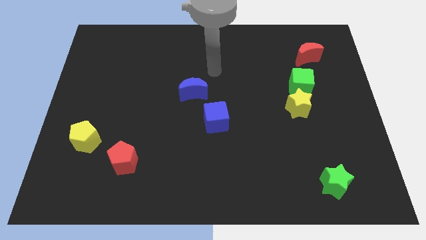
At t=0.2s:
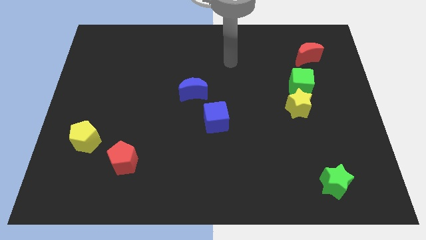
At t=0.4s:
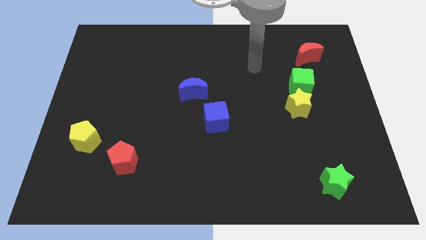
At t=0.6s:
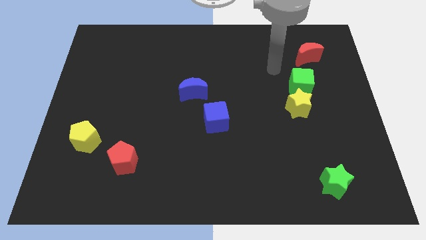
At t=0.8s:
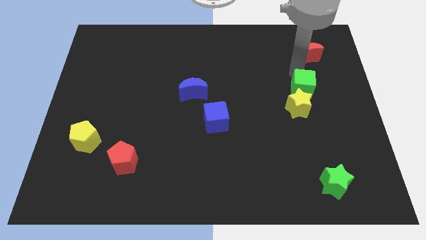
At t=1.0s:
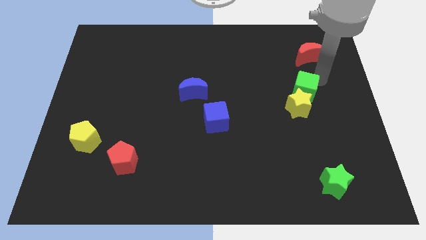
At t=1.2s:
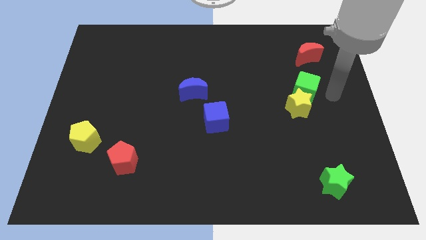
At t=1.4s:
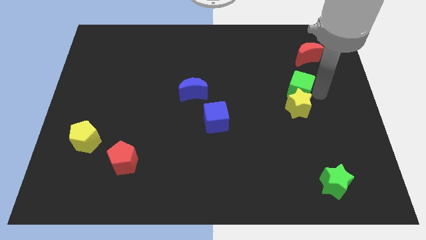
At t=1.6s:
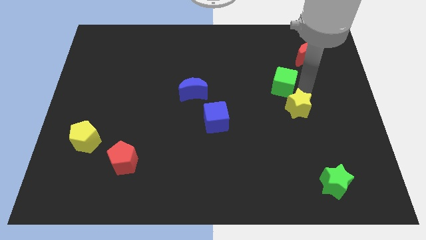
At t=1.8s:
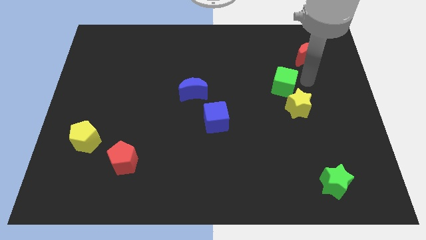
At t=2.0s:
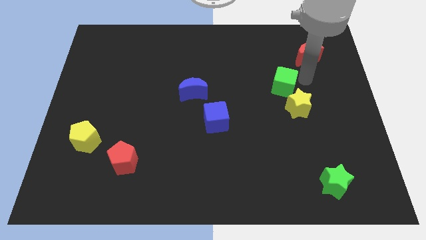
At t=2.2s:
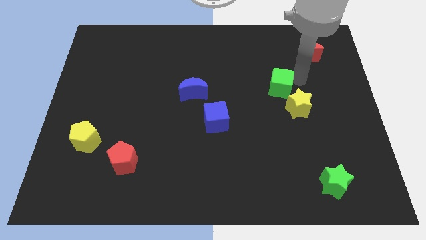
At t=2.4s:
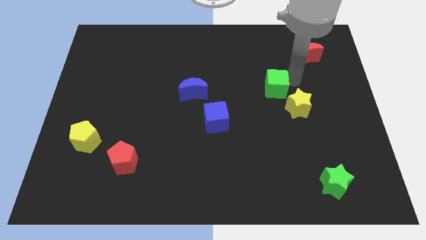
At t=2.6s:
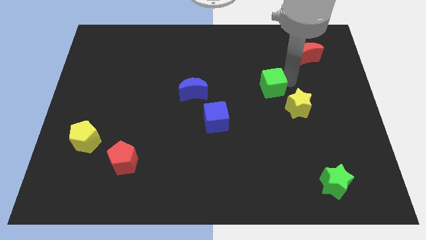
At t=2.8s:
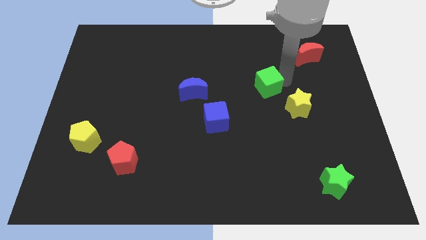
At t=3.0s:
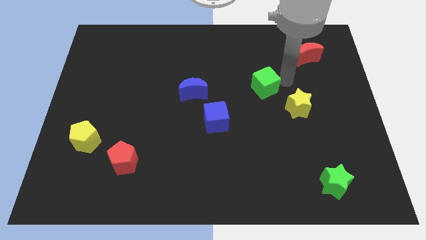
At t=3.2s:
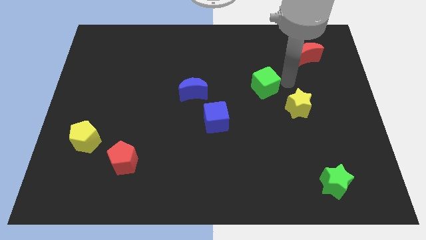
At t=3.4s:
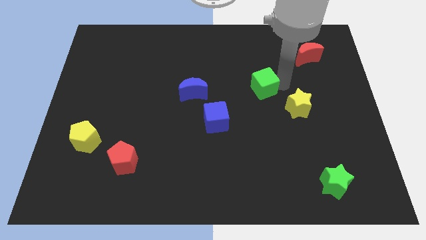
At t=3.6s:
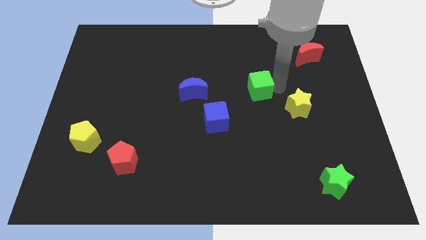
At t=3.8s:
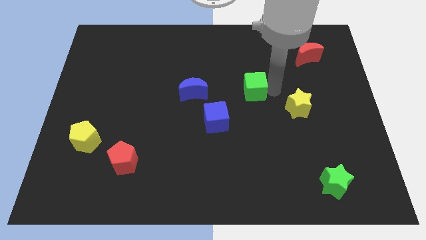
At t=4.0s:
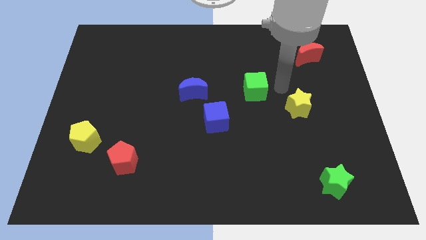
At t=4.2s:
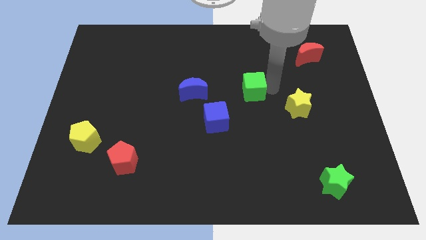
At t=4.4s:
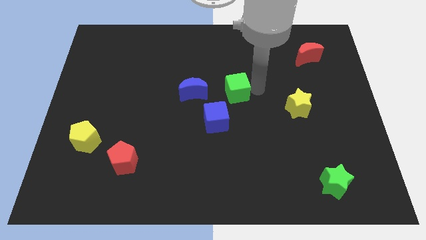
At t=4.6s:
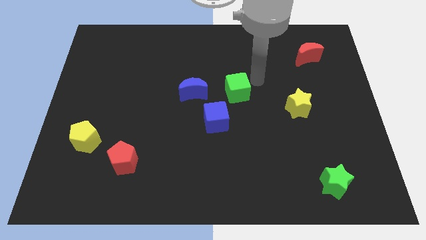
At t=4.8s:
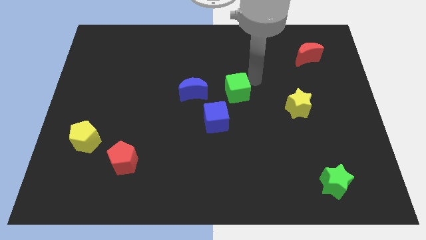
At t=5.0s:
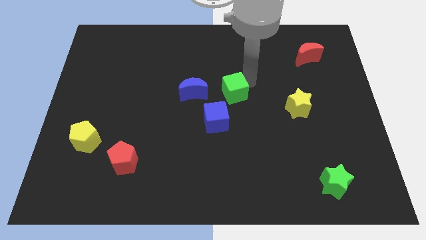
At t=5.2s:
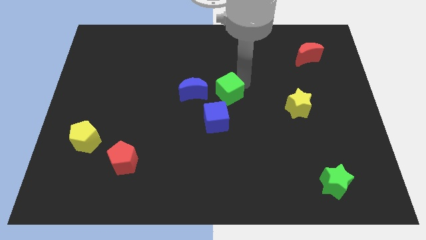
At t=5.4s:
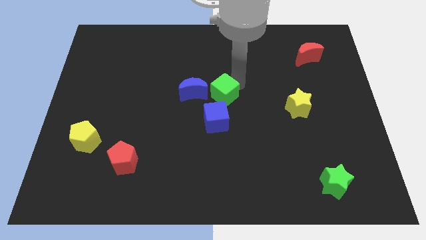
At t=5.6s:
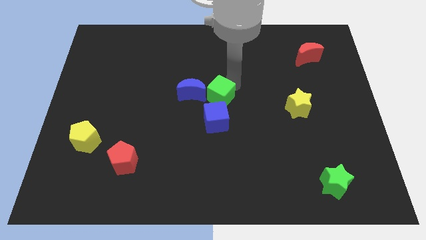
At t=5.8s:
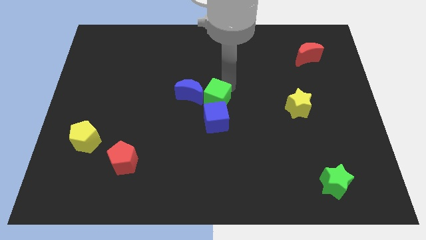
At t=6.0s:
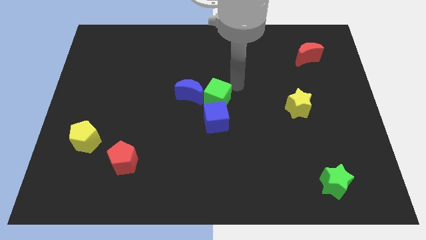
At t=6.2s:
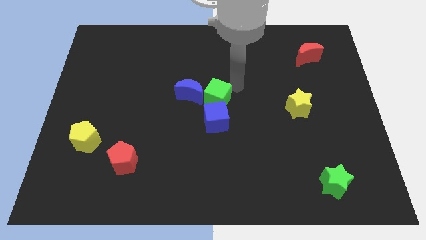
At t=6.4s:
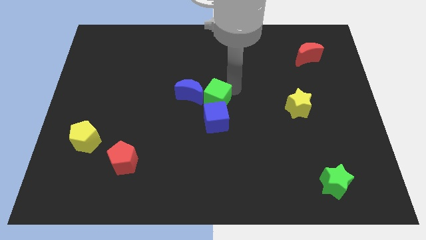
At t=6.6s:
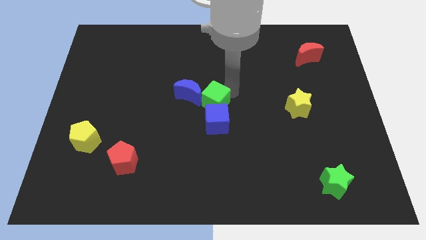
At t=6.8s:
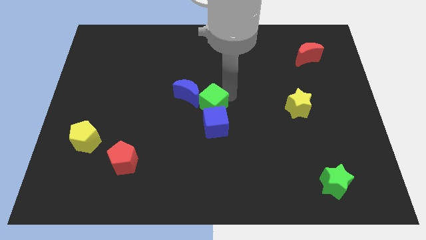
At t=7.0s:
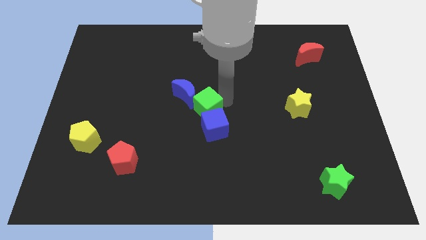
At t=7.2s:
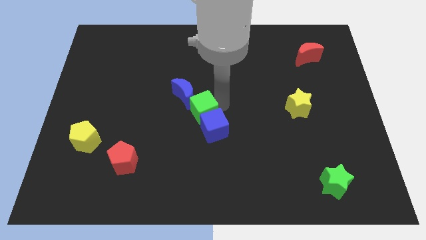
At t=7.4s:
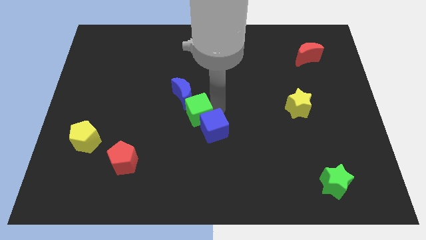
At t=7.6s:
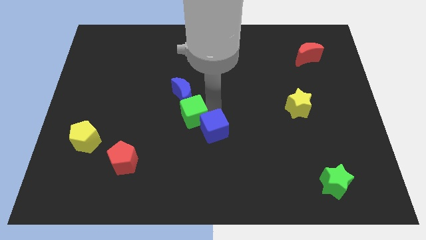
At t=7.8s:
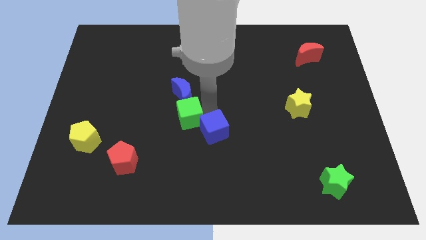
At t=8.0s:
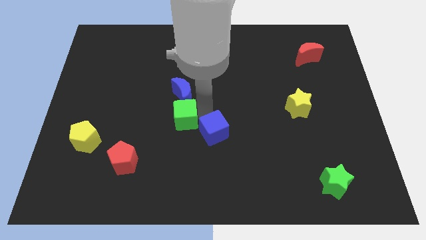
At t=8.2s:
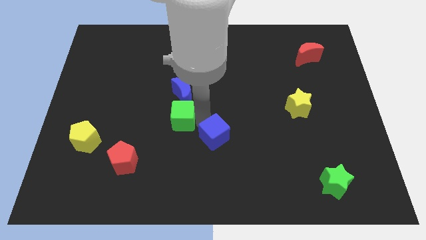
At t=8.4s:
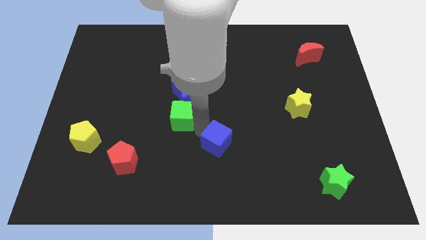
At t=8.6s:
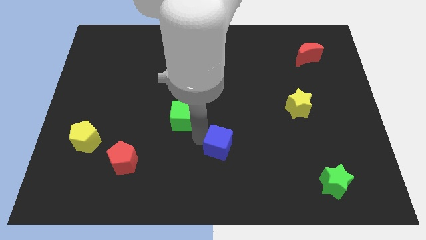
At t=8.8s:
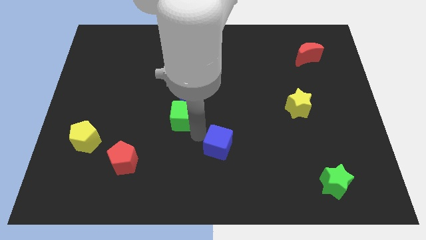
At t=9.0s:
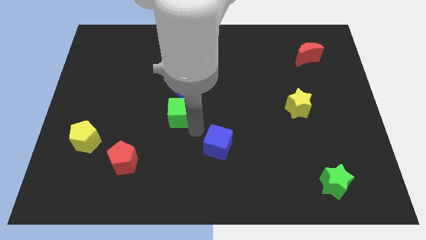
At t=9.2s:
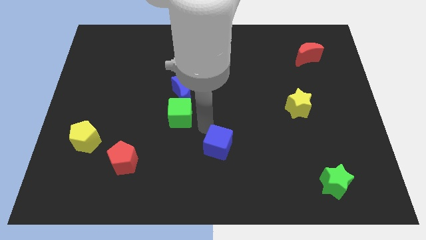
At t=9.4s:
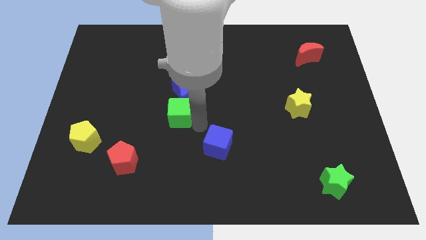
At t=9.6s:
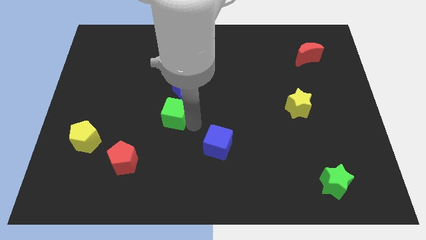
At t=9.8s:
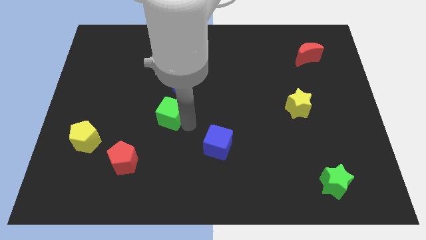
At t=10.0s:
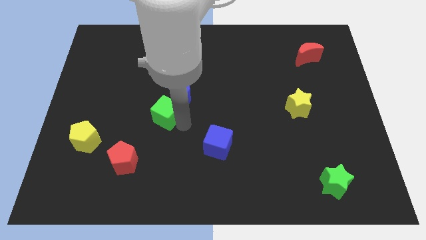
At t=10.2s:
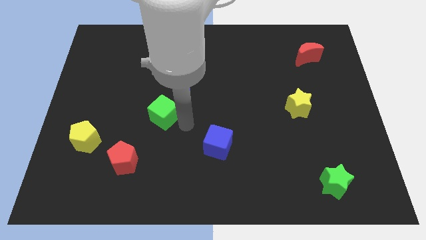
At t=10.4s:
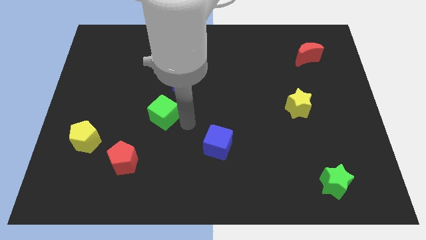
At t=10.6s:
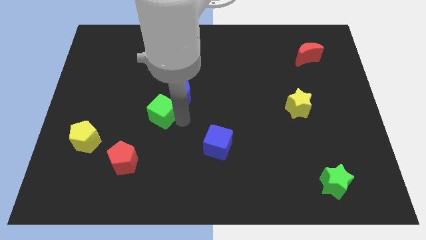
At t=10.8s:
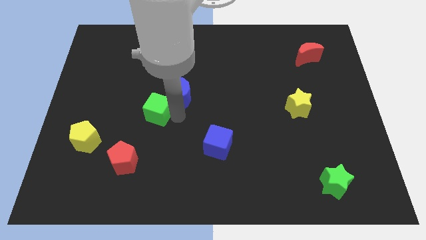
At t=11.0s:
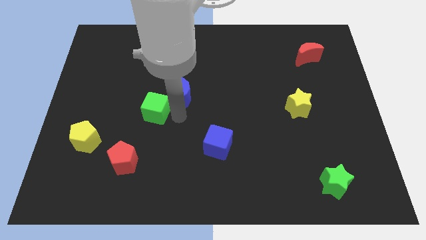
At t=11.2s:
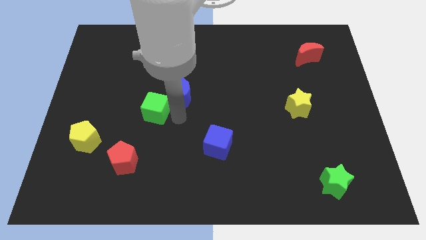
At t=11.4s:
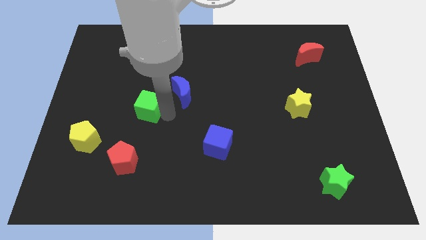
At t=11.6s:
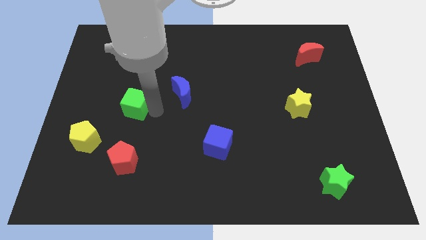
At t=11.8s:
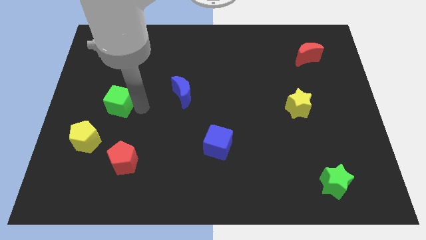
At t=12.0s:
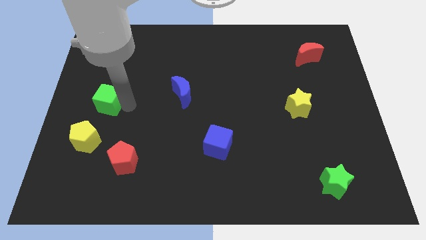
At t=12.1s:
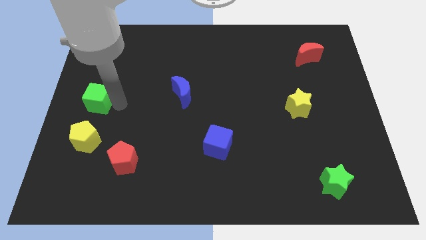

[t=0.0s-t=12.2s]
move the green cube to the center left
